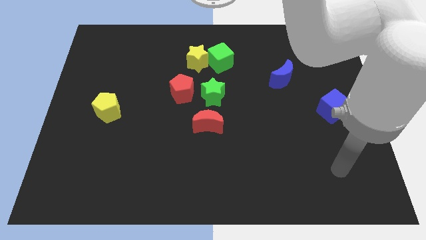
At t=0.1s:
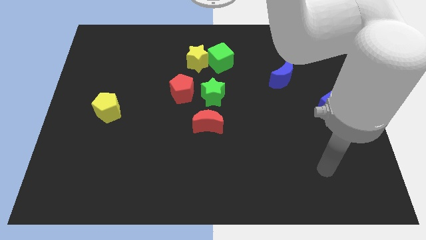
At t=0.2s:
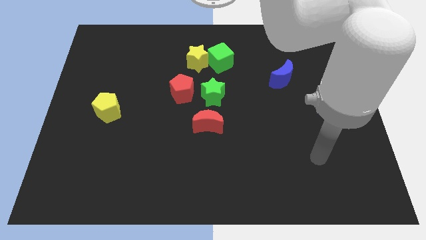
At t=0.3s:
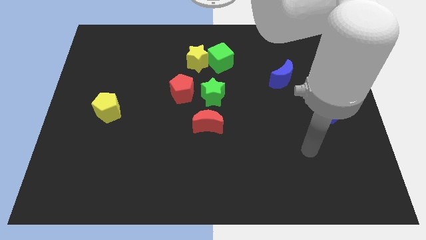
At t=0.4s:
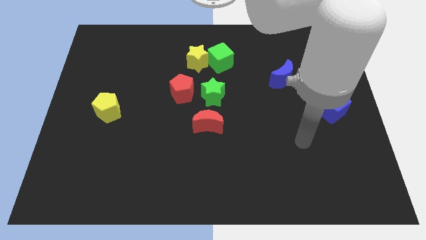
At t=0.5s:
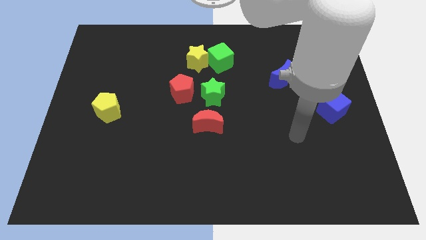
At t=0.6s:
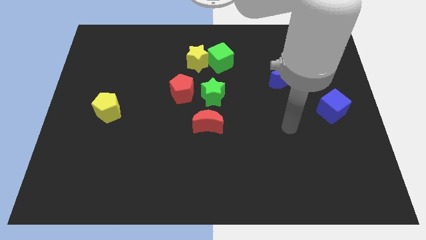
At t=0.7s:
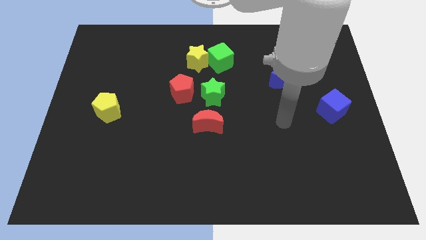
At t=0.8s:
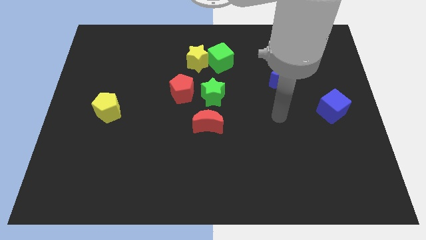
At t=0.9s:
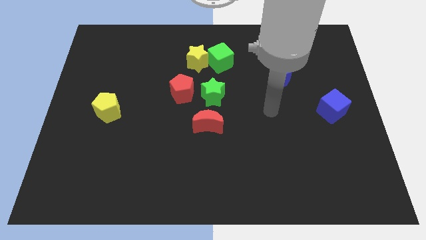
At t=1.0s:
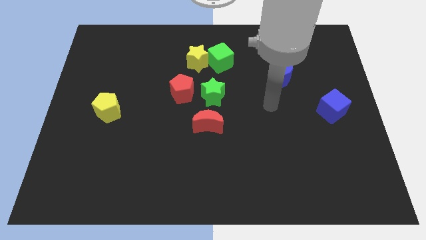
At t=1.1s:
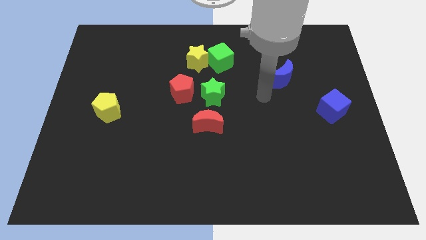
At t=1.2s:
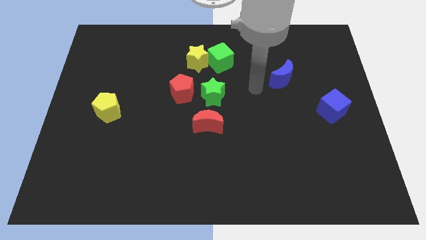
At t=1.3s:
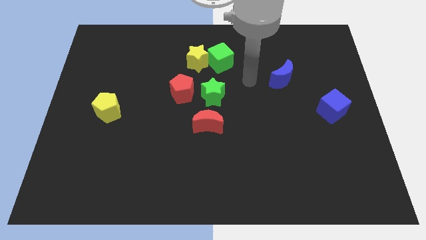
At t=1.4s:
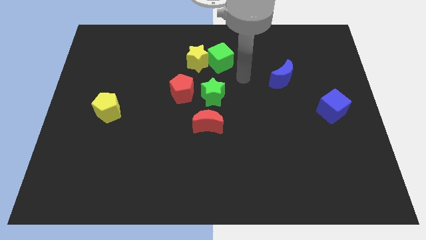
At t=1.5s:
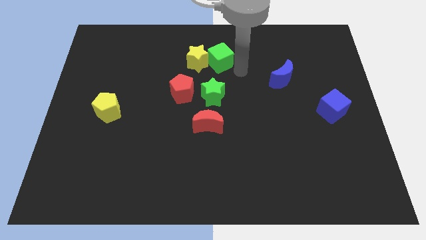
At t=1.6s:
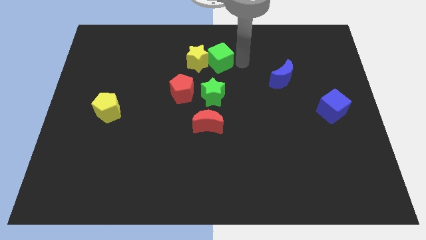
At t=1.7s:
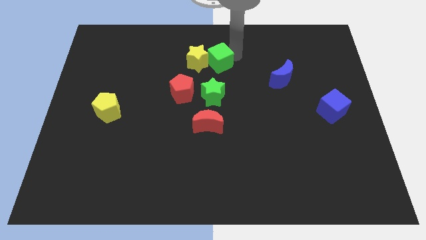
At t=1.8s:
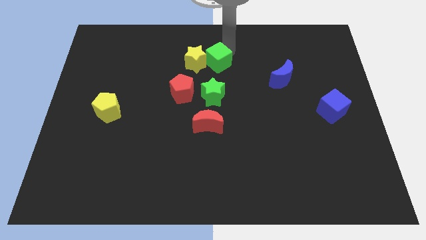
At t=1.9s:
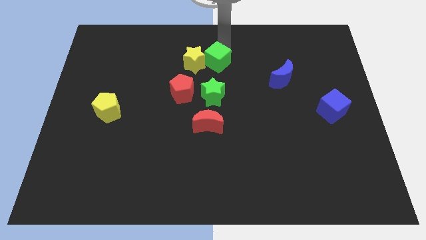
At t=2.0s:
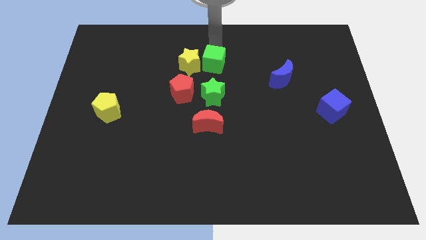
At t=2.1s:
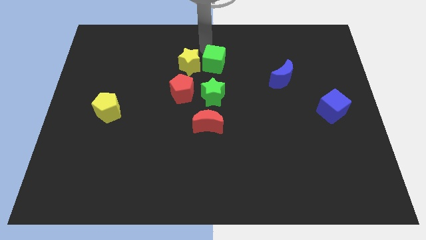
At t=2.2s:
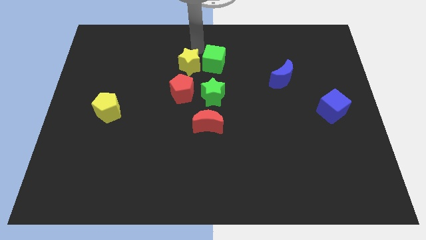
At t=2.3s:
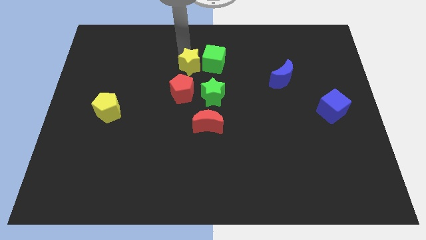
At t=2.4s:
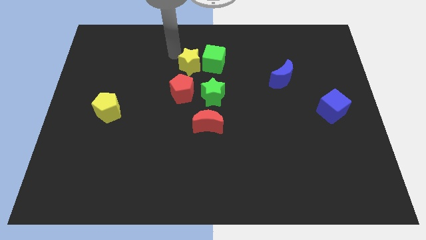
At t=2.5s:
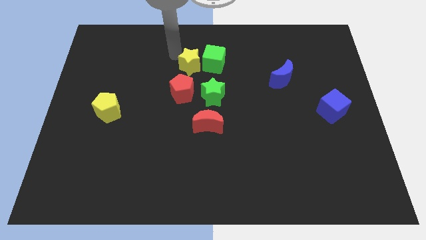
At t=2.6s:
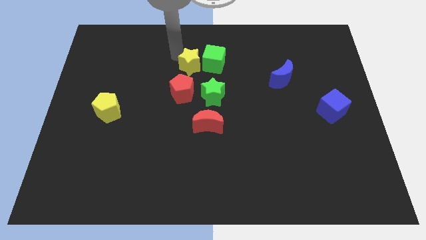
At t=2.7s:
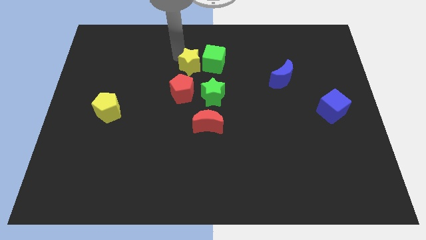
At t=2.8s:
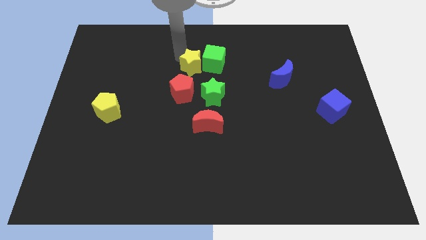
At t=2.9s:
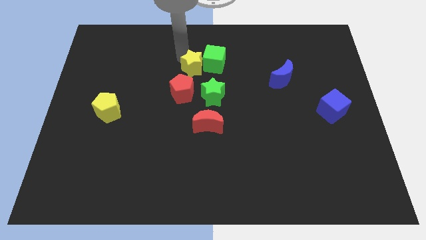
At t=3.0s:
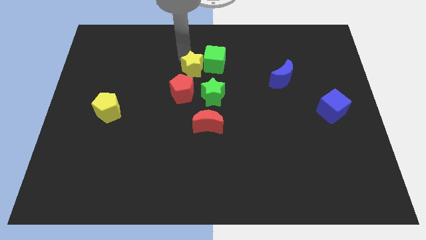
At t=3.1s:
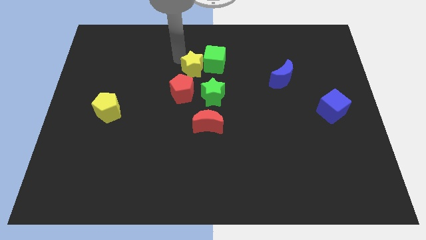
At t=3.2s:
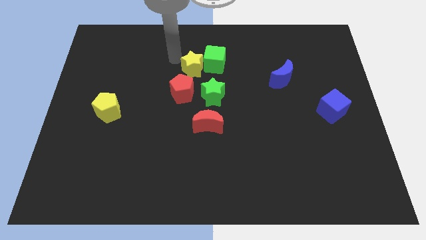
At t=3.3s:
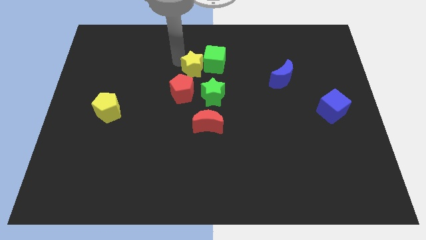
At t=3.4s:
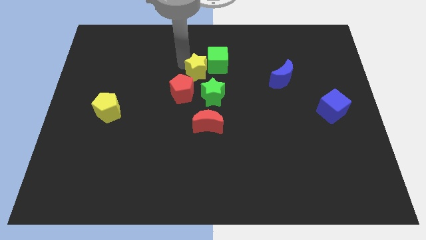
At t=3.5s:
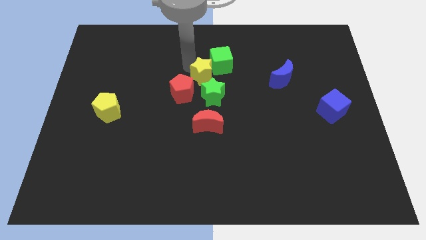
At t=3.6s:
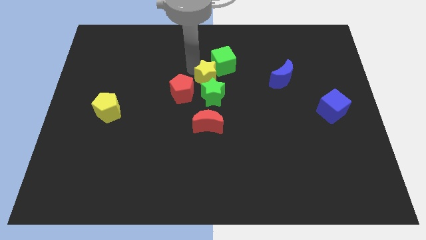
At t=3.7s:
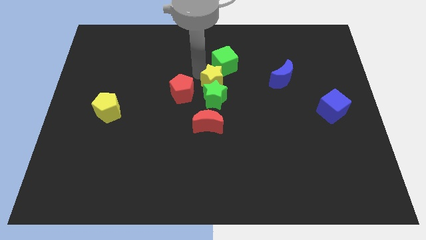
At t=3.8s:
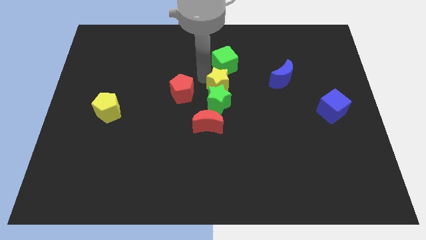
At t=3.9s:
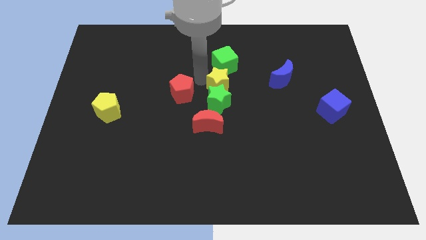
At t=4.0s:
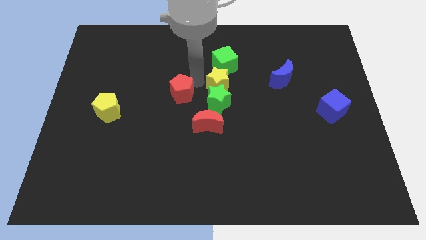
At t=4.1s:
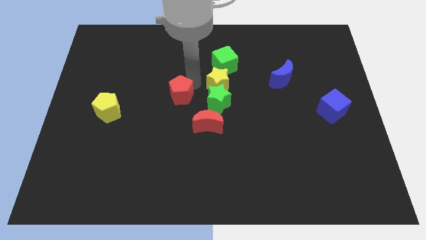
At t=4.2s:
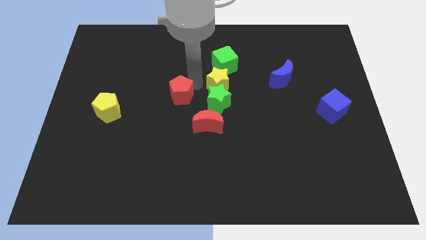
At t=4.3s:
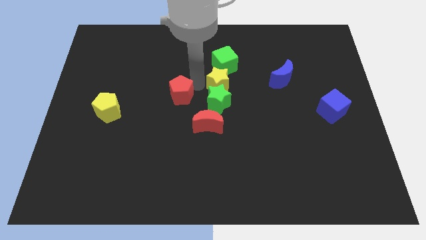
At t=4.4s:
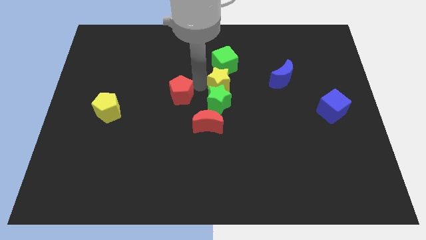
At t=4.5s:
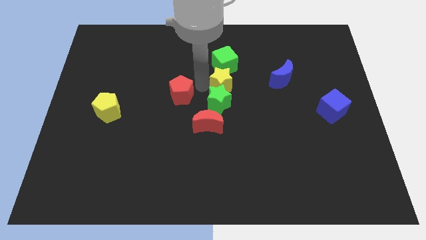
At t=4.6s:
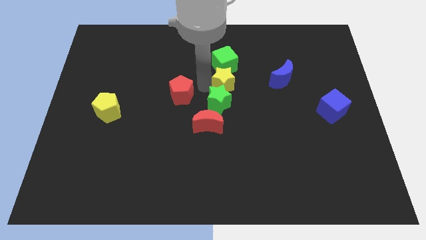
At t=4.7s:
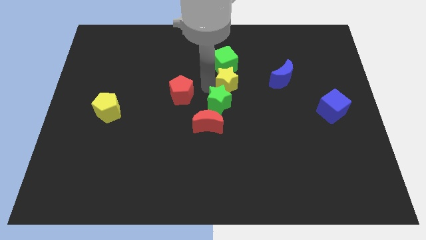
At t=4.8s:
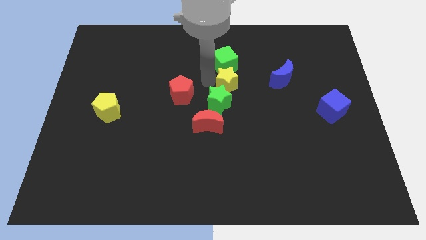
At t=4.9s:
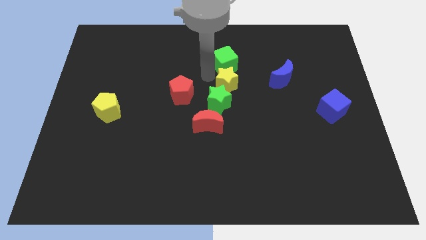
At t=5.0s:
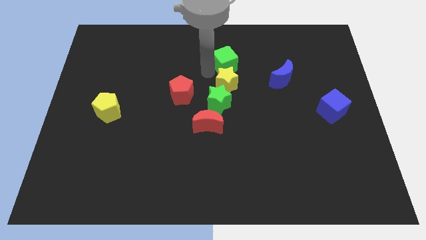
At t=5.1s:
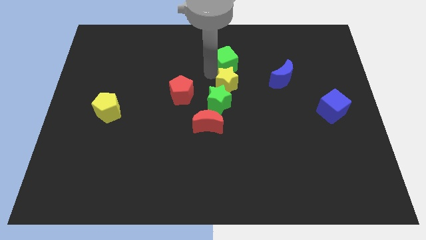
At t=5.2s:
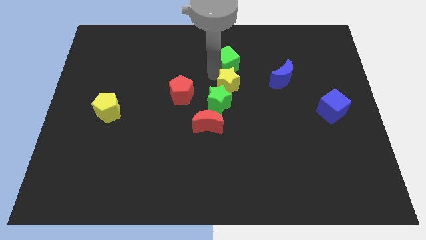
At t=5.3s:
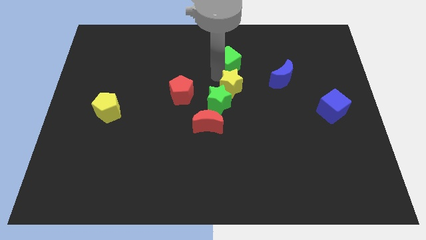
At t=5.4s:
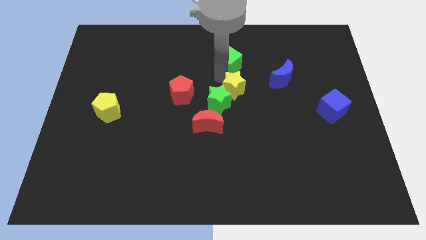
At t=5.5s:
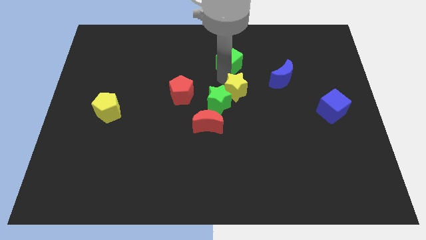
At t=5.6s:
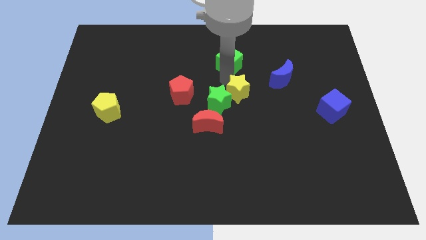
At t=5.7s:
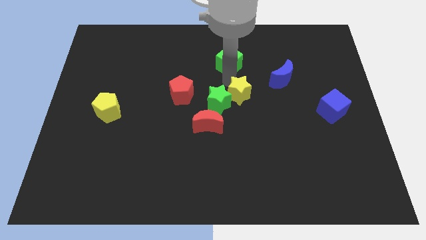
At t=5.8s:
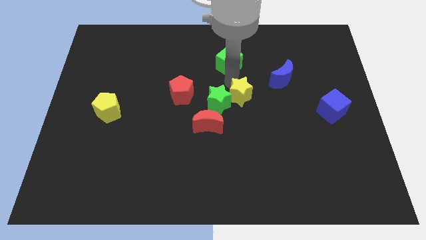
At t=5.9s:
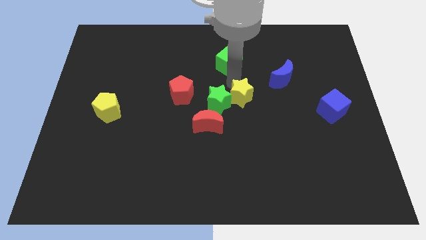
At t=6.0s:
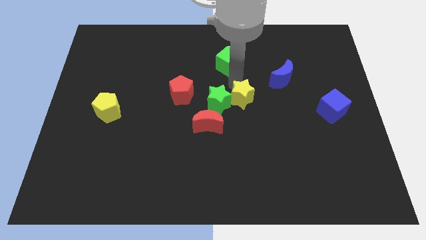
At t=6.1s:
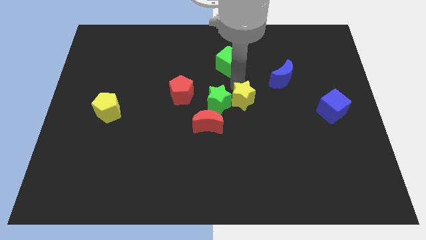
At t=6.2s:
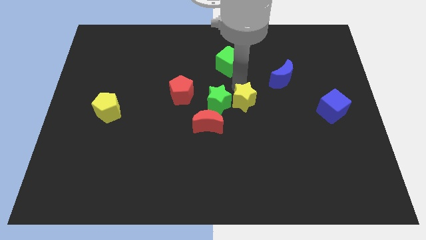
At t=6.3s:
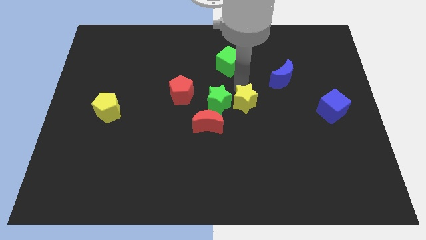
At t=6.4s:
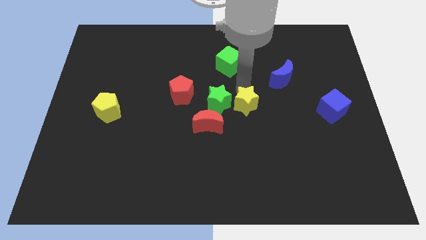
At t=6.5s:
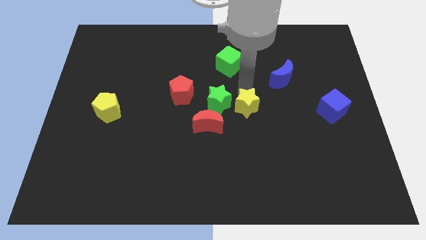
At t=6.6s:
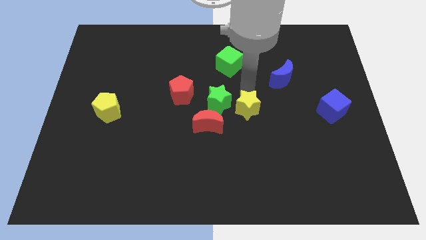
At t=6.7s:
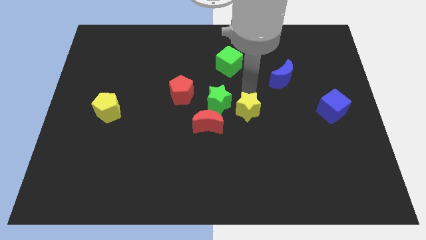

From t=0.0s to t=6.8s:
move the yellow star diagonally downwards and right

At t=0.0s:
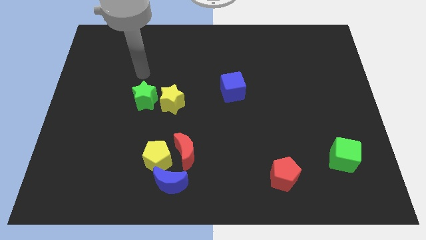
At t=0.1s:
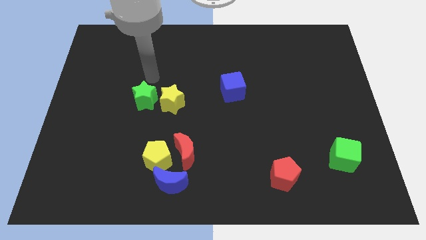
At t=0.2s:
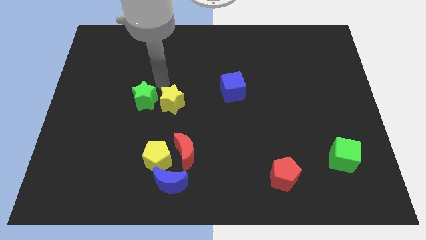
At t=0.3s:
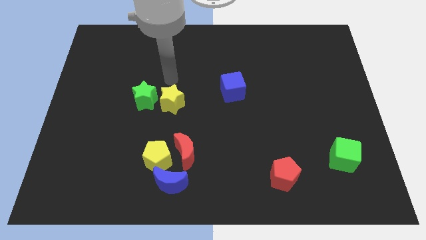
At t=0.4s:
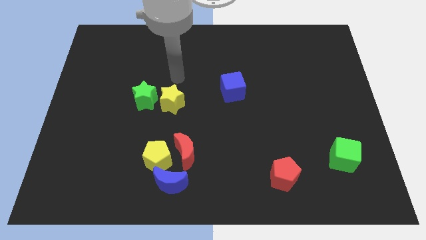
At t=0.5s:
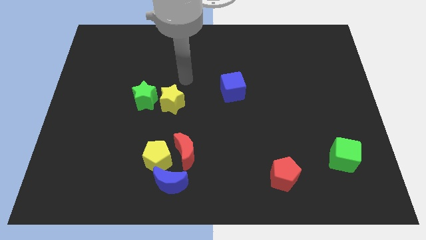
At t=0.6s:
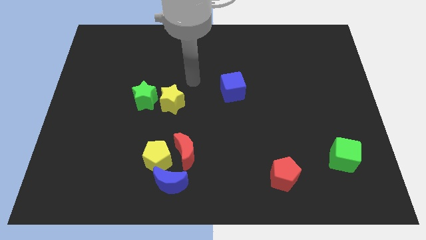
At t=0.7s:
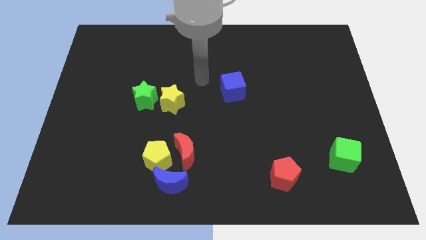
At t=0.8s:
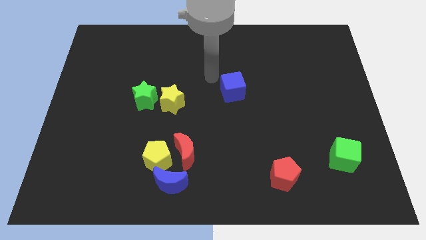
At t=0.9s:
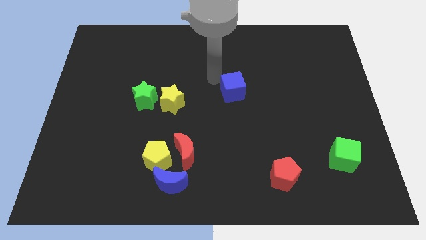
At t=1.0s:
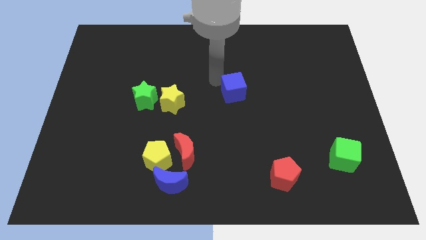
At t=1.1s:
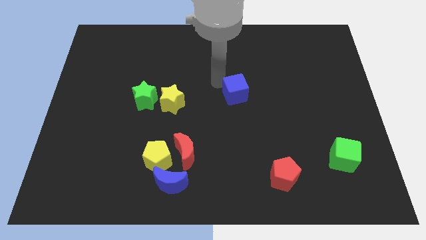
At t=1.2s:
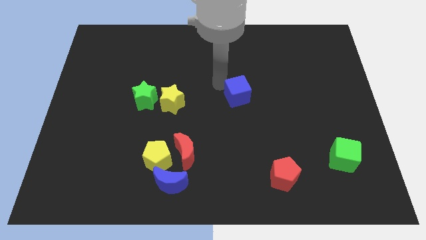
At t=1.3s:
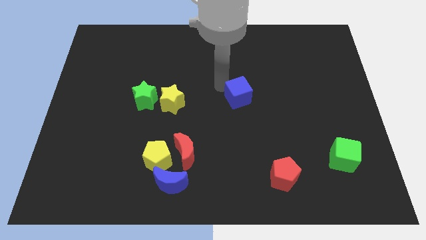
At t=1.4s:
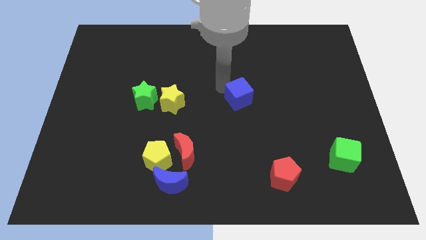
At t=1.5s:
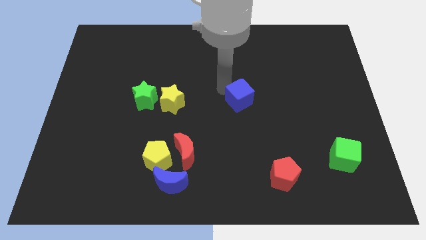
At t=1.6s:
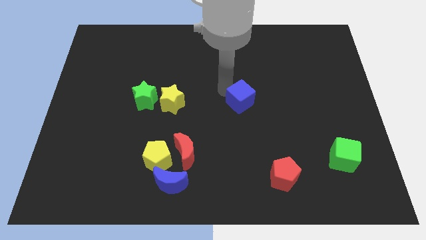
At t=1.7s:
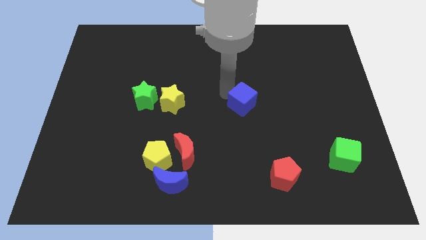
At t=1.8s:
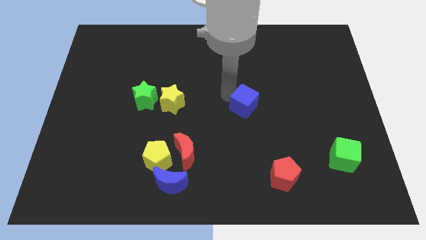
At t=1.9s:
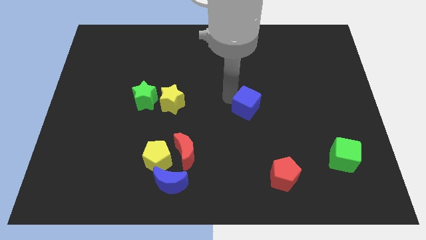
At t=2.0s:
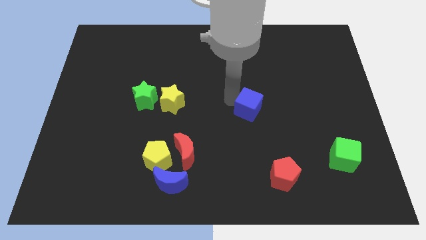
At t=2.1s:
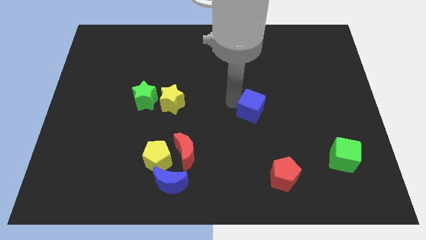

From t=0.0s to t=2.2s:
slightly slide the blue cube diagonally downwards and to the right
